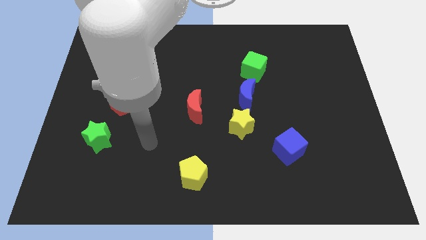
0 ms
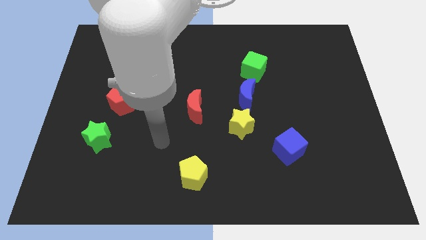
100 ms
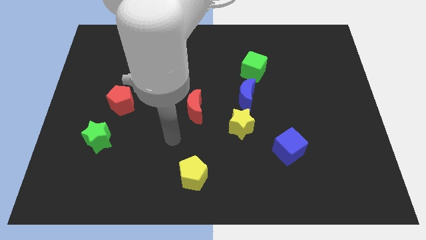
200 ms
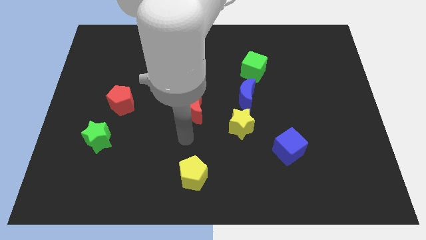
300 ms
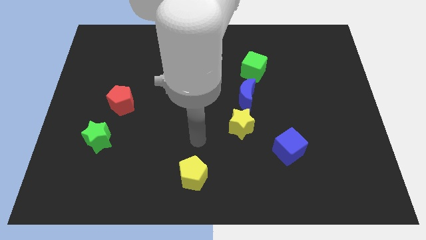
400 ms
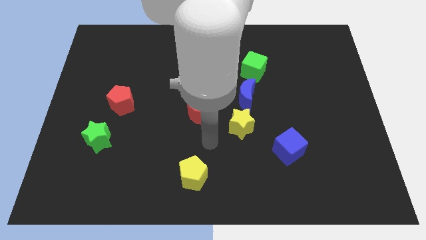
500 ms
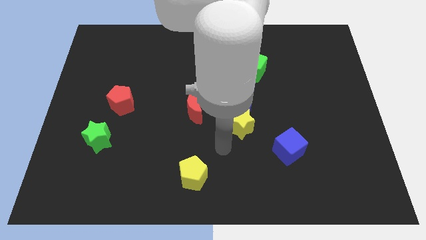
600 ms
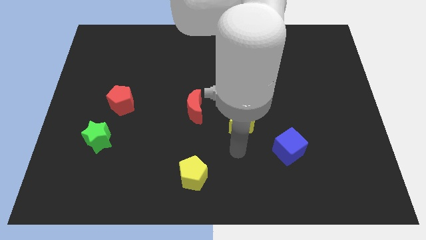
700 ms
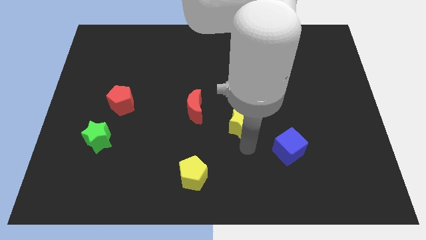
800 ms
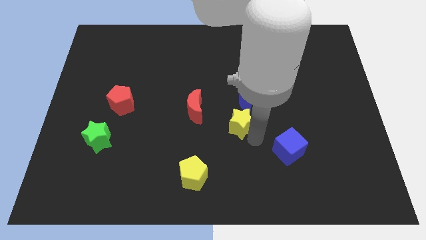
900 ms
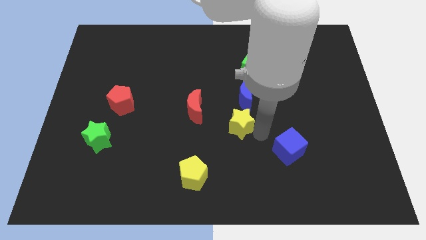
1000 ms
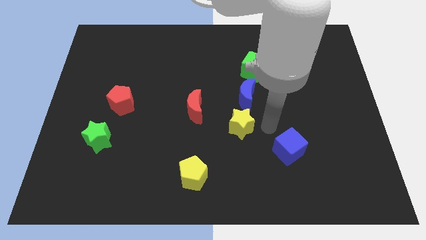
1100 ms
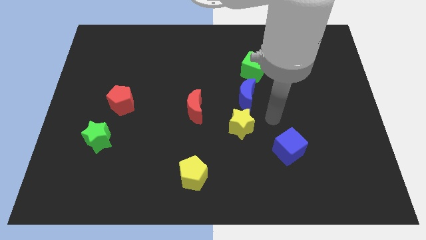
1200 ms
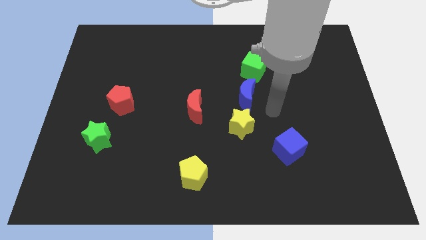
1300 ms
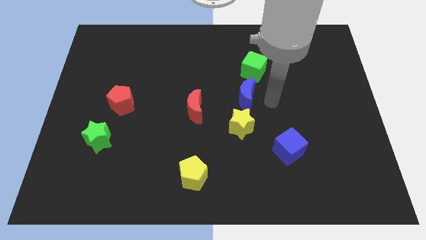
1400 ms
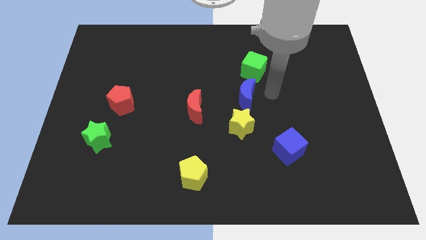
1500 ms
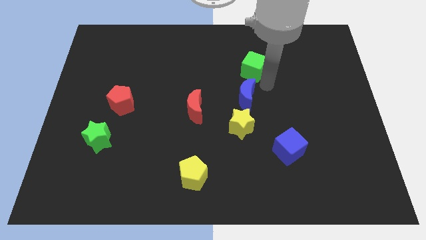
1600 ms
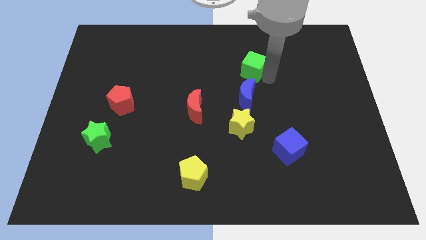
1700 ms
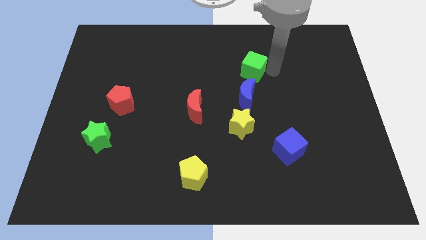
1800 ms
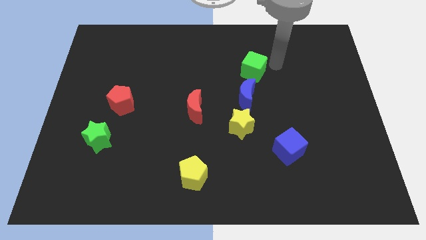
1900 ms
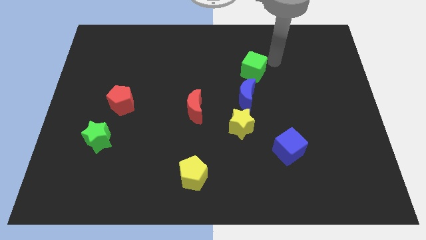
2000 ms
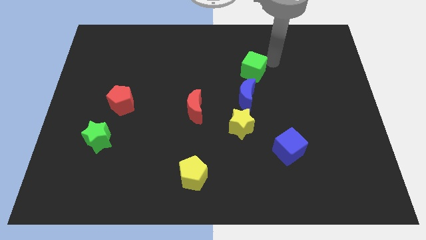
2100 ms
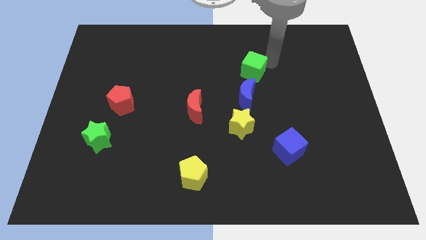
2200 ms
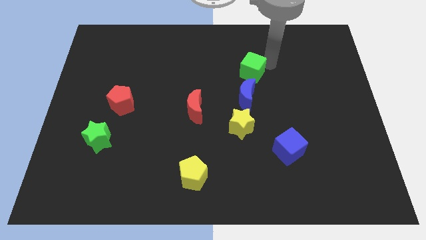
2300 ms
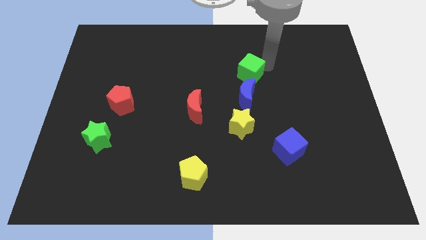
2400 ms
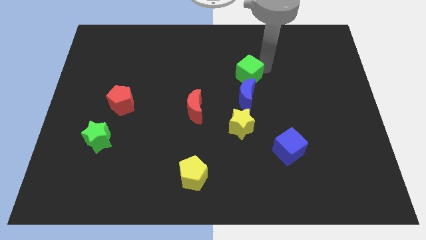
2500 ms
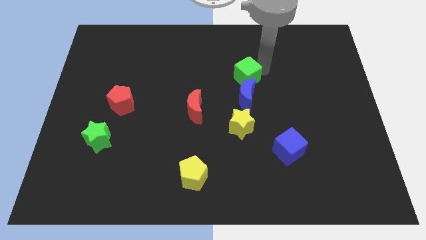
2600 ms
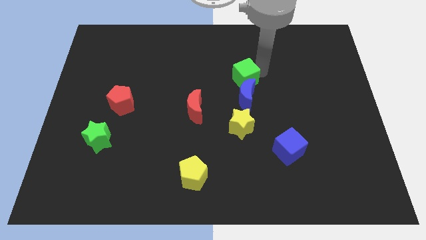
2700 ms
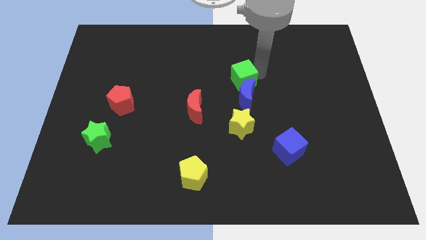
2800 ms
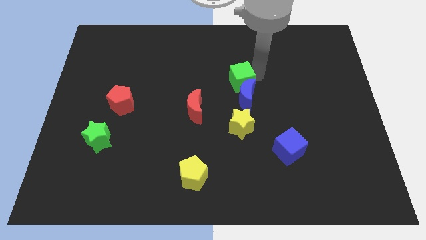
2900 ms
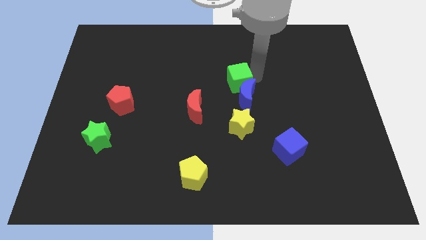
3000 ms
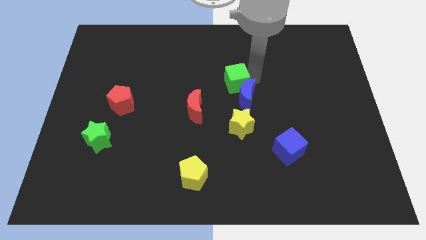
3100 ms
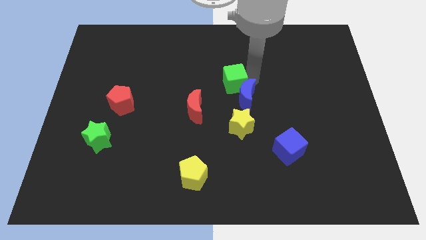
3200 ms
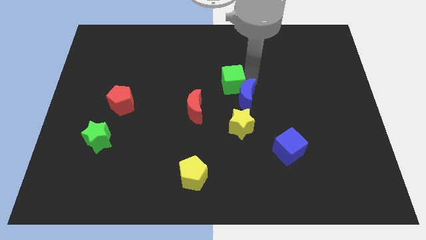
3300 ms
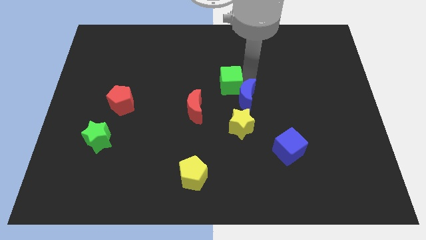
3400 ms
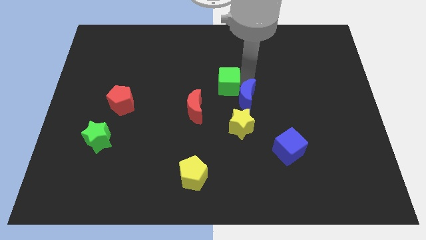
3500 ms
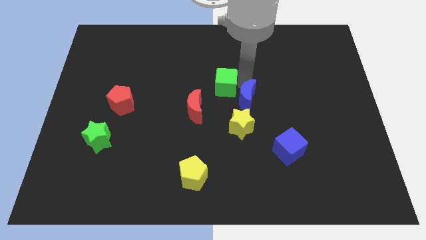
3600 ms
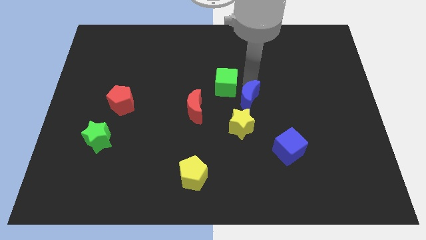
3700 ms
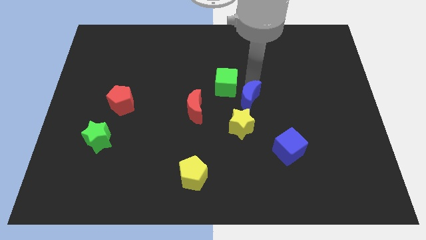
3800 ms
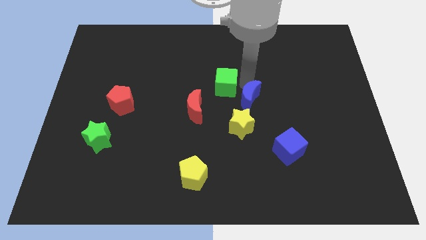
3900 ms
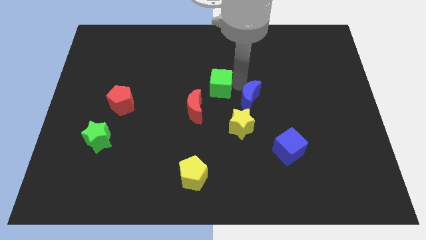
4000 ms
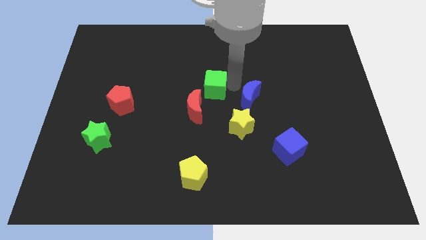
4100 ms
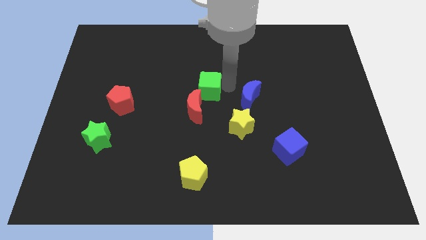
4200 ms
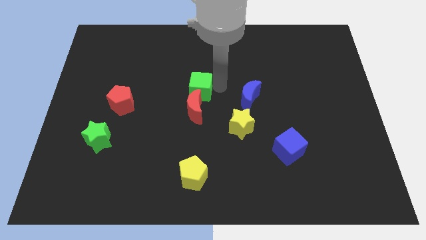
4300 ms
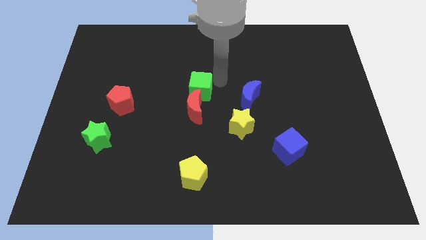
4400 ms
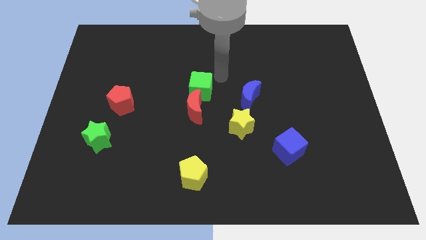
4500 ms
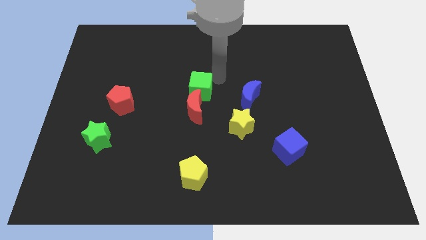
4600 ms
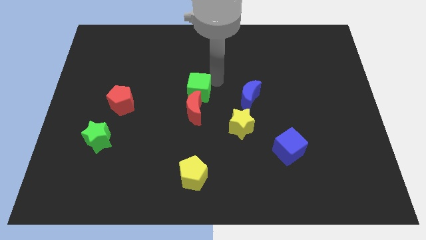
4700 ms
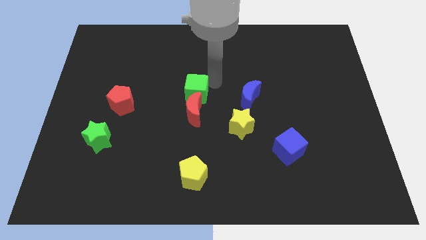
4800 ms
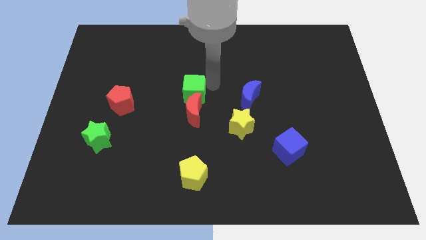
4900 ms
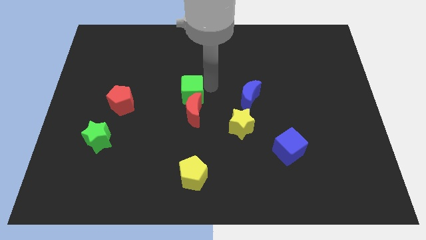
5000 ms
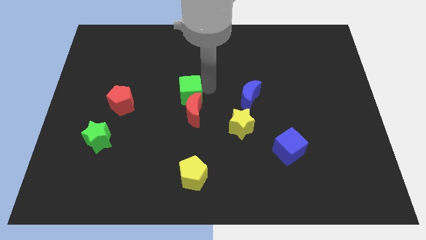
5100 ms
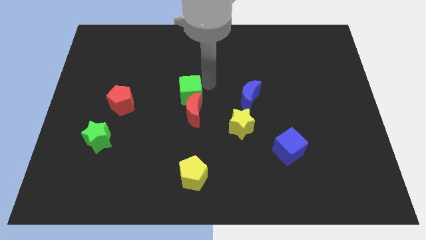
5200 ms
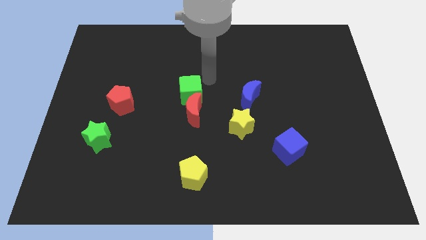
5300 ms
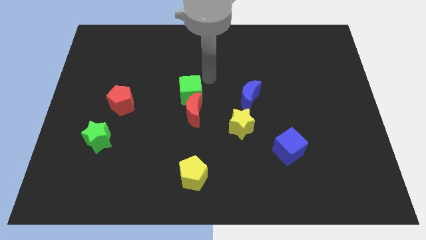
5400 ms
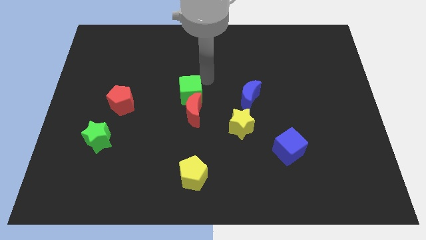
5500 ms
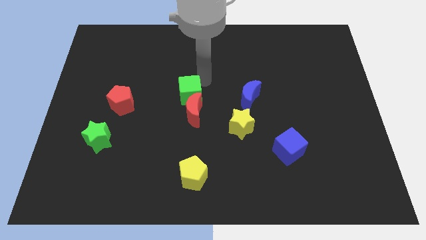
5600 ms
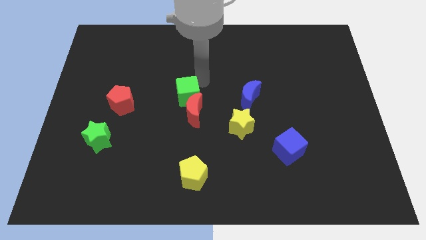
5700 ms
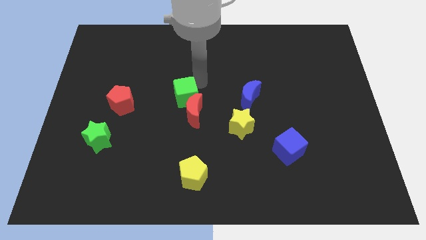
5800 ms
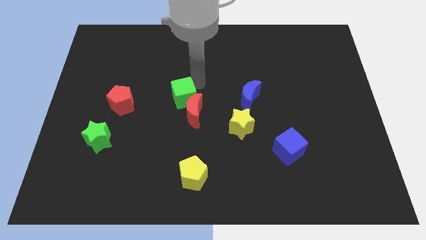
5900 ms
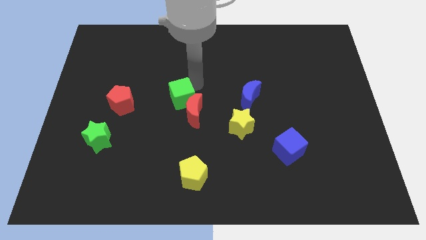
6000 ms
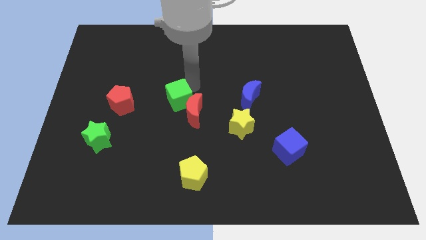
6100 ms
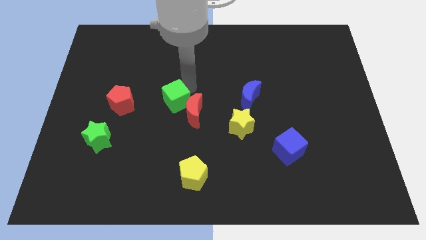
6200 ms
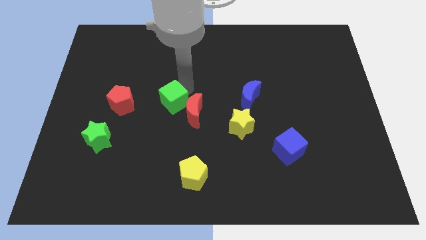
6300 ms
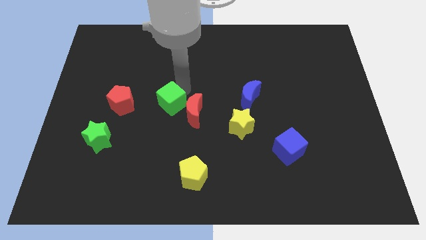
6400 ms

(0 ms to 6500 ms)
push the green cube downwards and left

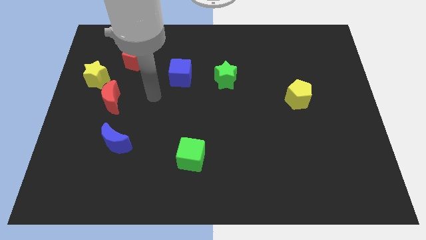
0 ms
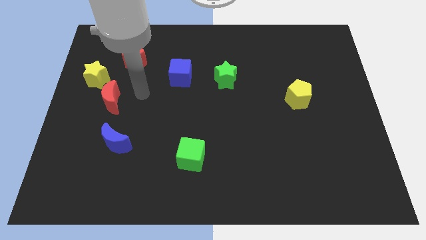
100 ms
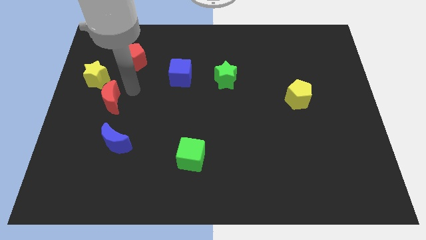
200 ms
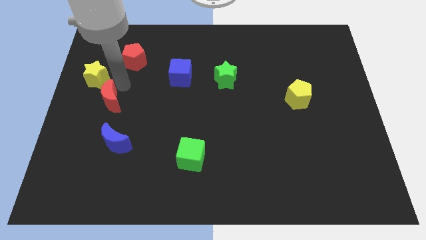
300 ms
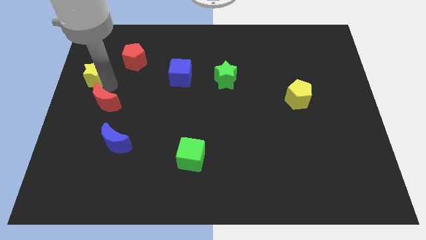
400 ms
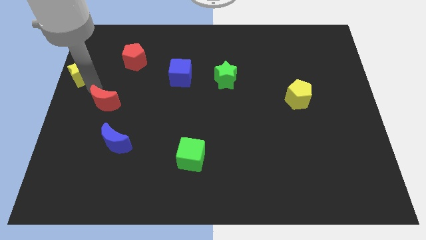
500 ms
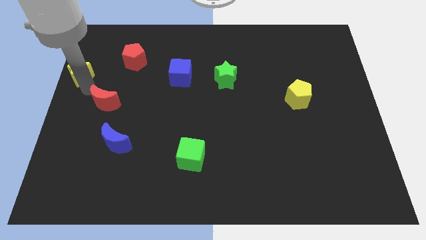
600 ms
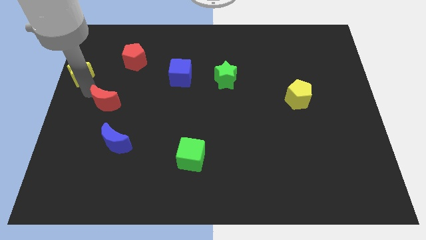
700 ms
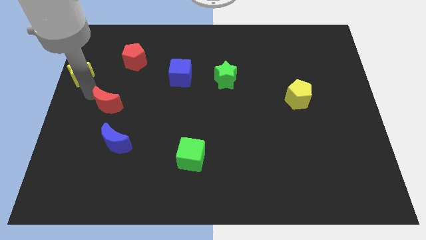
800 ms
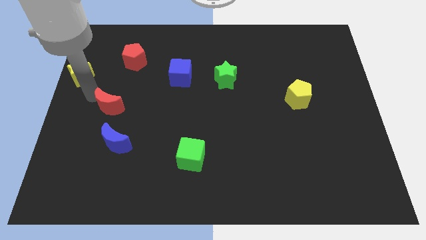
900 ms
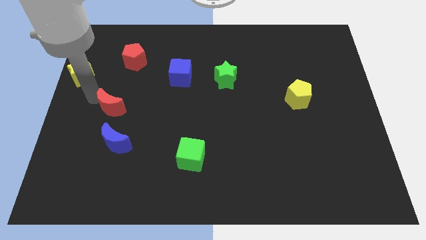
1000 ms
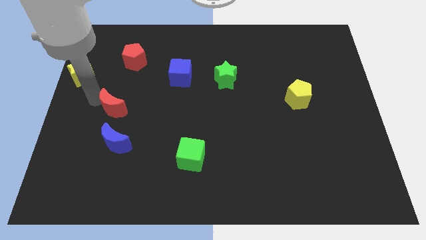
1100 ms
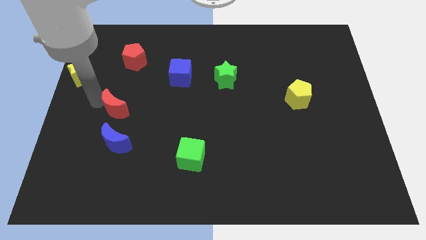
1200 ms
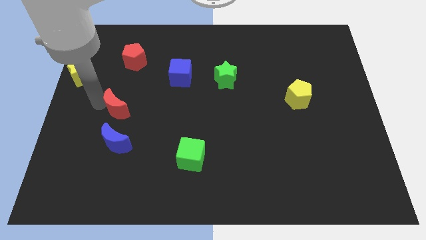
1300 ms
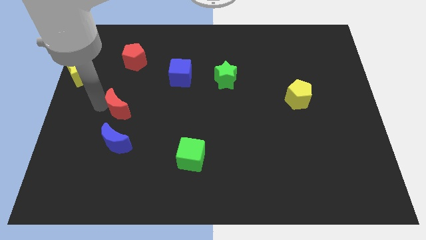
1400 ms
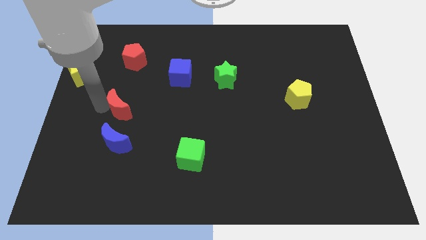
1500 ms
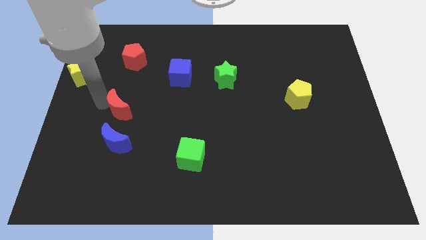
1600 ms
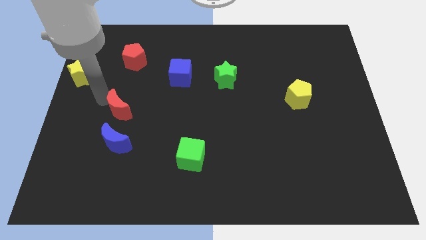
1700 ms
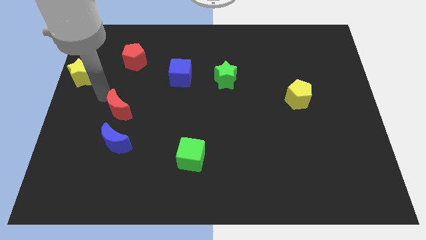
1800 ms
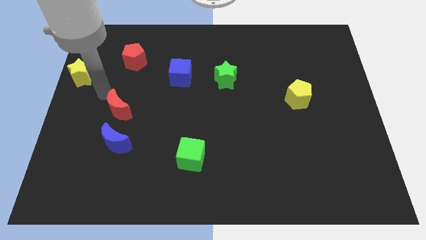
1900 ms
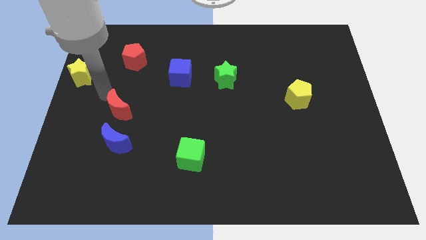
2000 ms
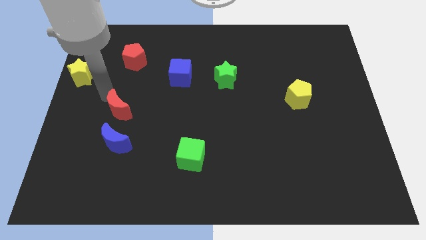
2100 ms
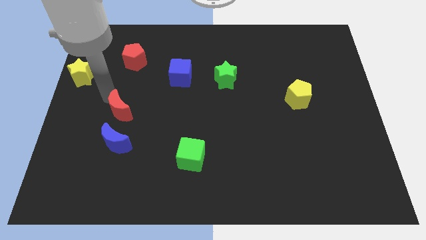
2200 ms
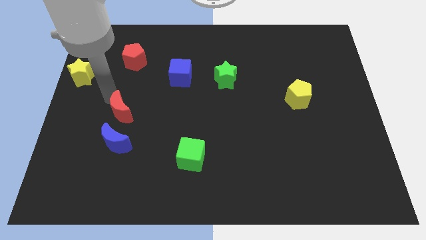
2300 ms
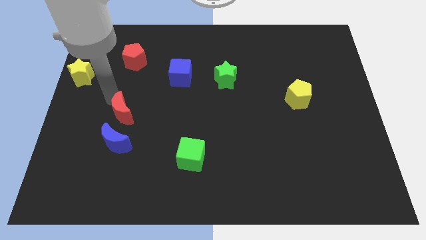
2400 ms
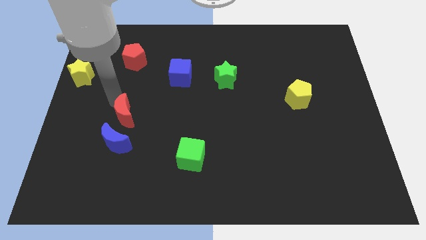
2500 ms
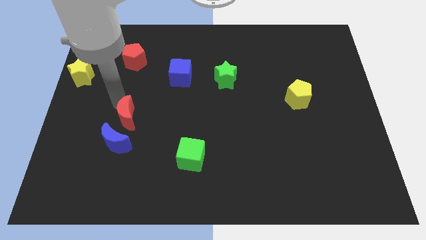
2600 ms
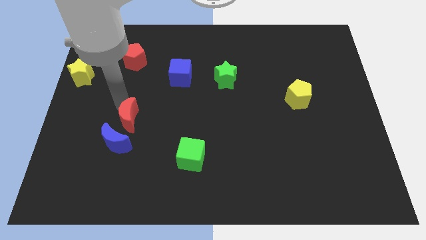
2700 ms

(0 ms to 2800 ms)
slightly push the red moon downwards and then right
